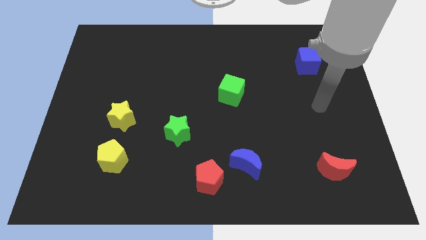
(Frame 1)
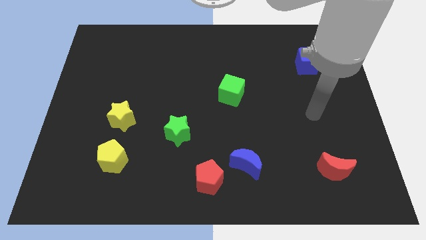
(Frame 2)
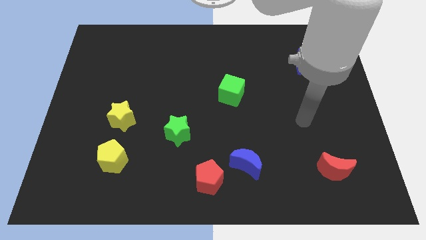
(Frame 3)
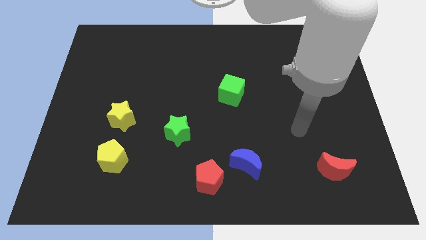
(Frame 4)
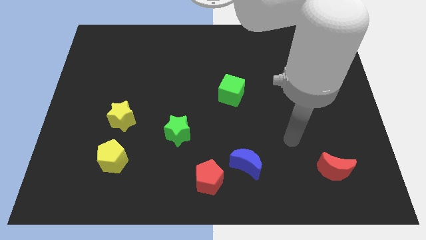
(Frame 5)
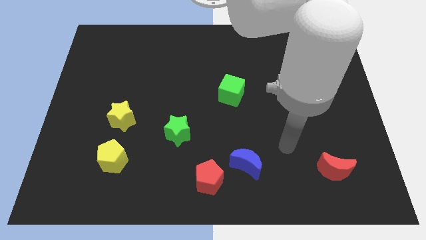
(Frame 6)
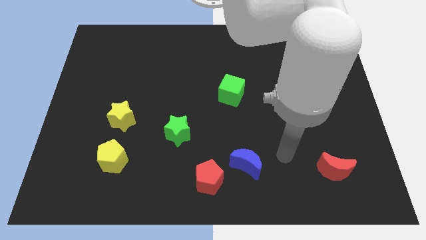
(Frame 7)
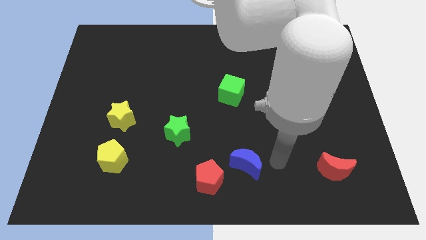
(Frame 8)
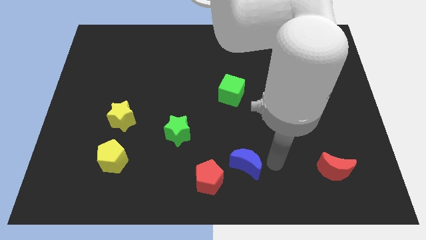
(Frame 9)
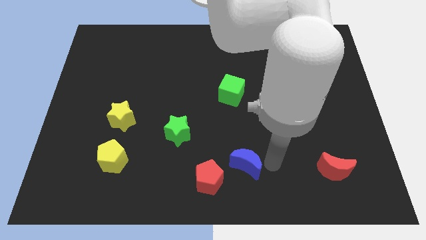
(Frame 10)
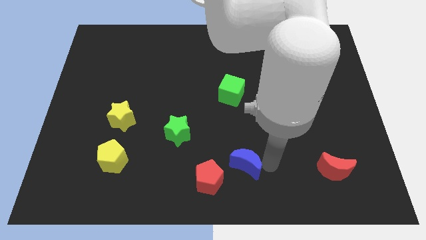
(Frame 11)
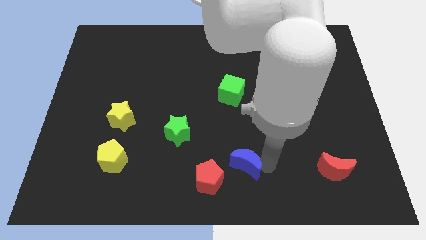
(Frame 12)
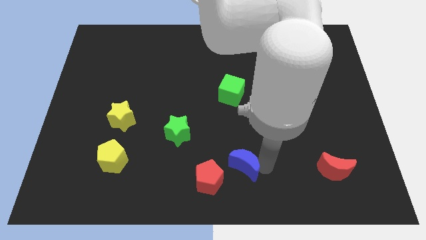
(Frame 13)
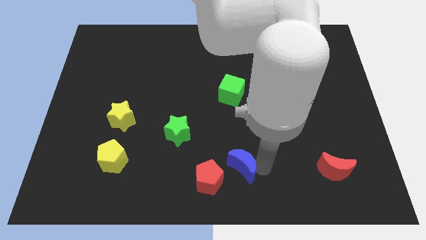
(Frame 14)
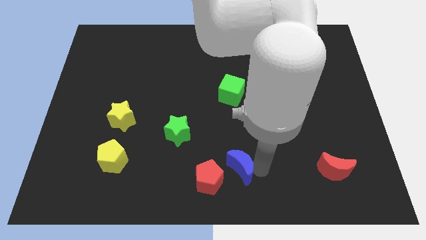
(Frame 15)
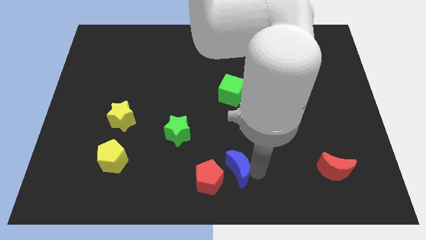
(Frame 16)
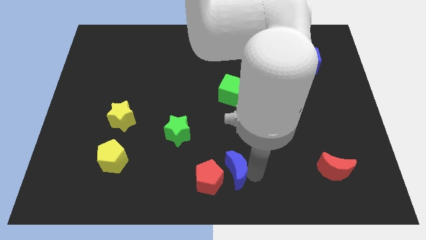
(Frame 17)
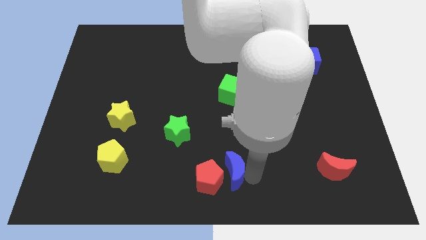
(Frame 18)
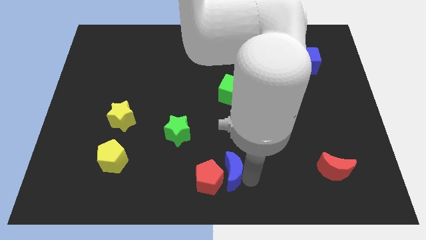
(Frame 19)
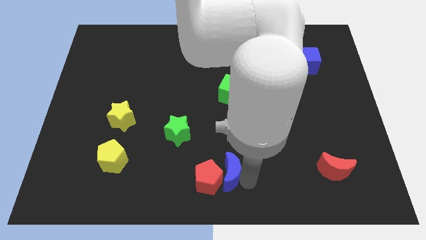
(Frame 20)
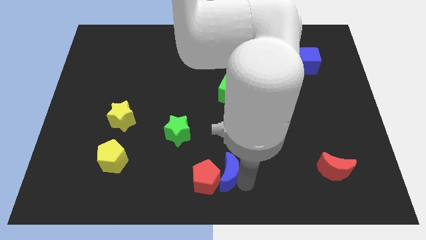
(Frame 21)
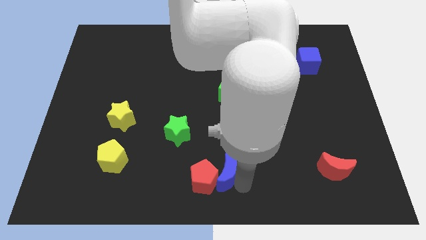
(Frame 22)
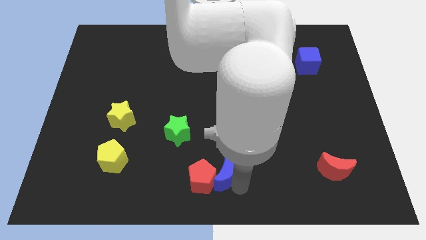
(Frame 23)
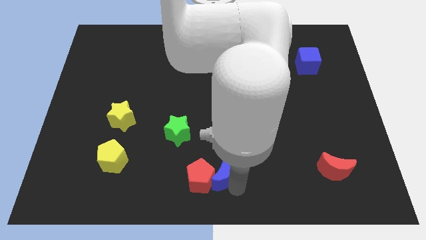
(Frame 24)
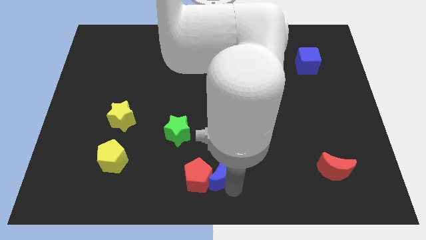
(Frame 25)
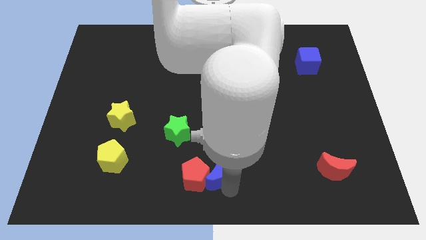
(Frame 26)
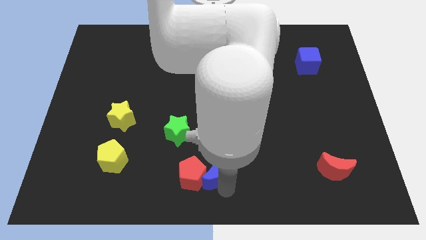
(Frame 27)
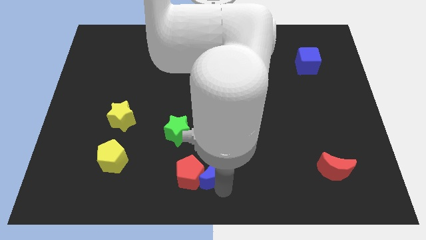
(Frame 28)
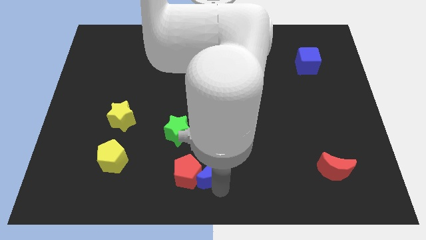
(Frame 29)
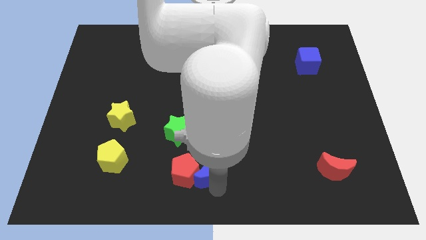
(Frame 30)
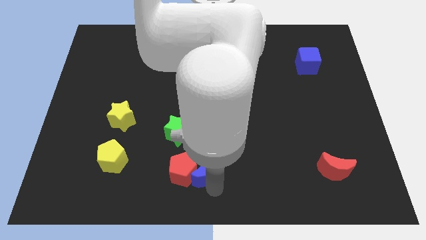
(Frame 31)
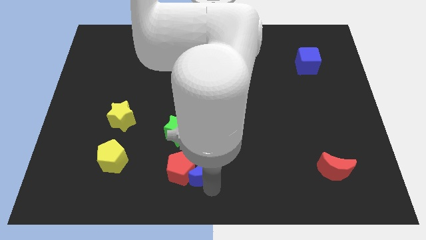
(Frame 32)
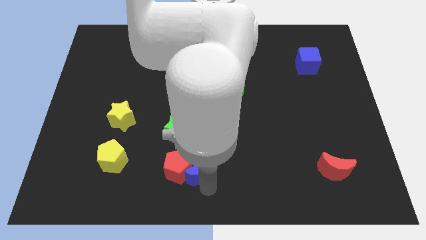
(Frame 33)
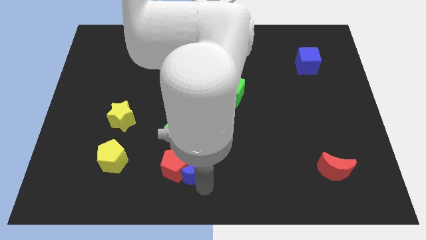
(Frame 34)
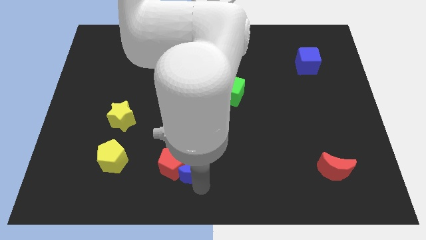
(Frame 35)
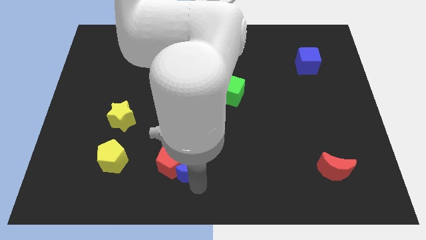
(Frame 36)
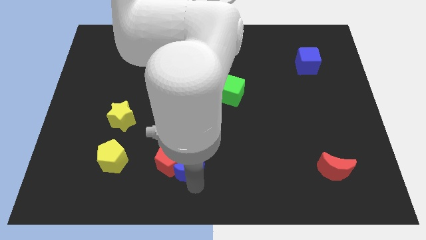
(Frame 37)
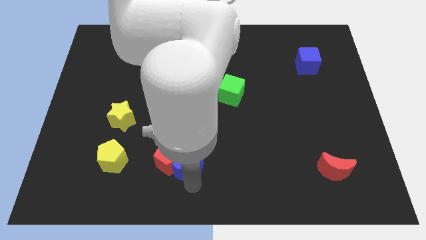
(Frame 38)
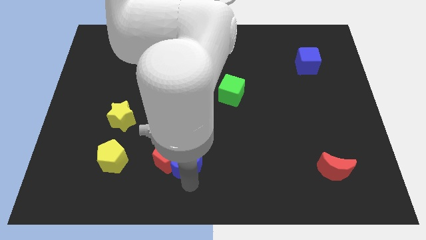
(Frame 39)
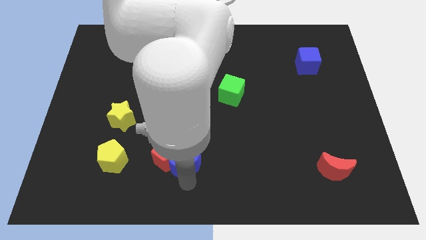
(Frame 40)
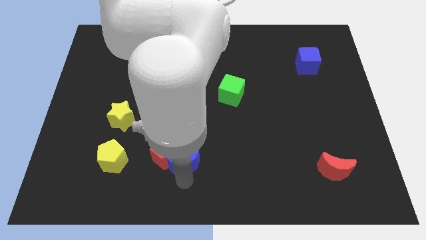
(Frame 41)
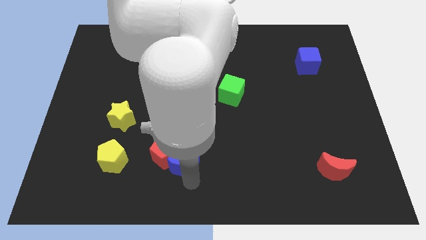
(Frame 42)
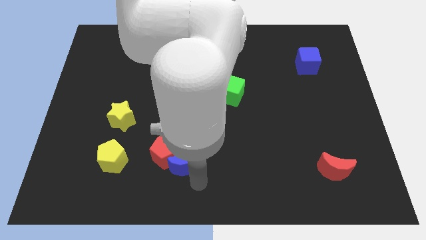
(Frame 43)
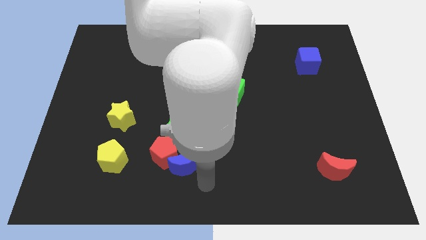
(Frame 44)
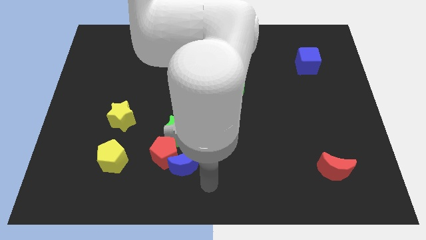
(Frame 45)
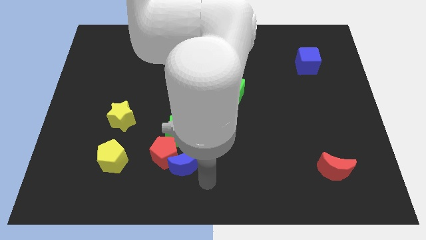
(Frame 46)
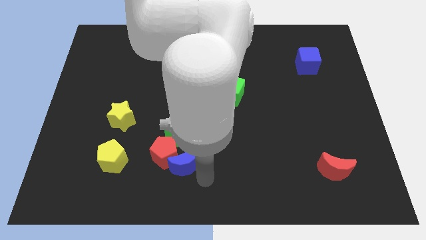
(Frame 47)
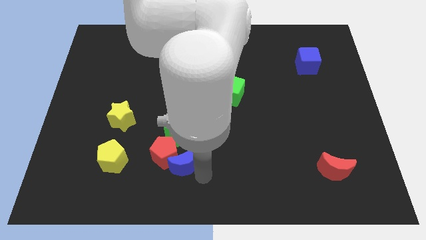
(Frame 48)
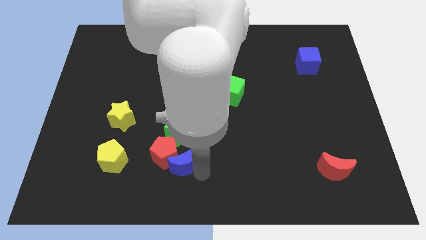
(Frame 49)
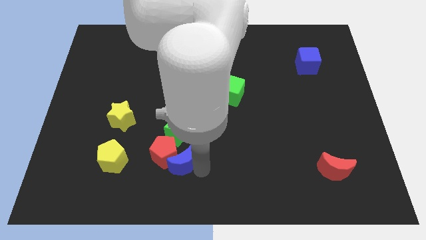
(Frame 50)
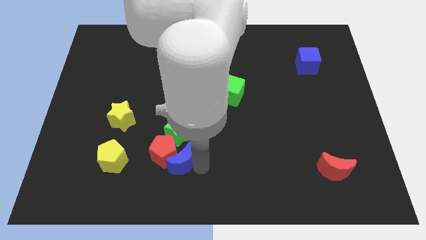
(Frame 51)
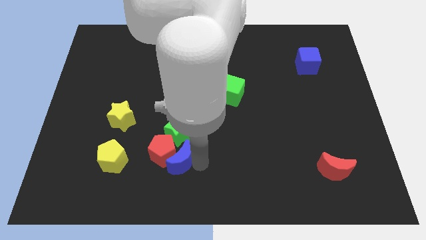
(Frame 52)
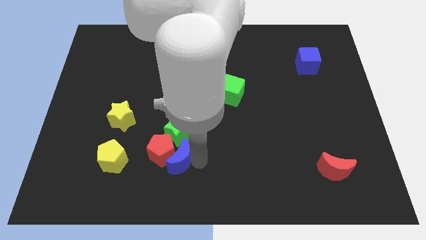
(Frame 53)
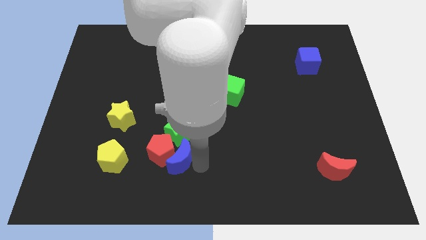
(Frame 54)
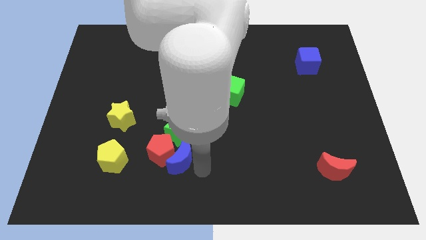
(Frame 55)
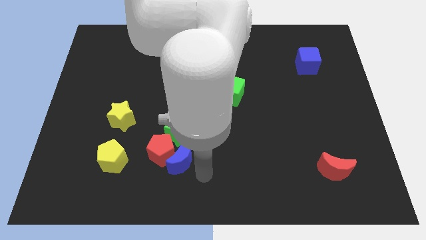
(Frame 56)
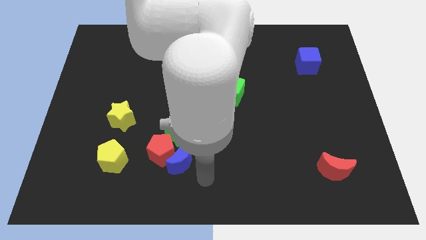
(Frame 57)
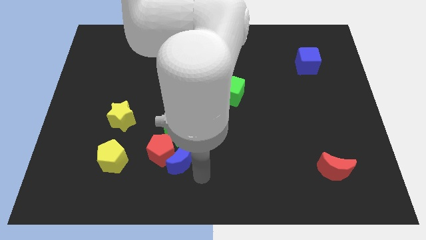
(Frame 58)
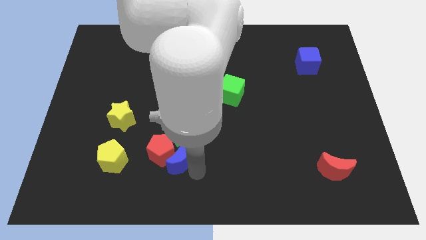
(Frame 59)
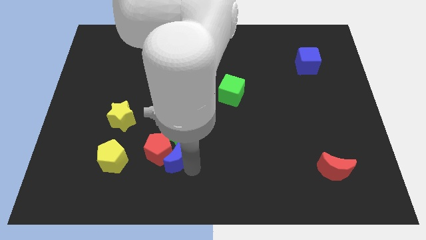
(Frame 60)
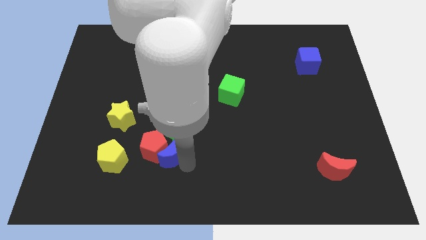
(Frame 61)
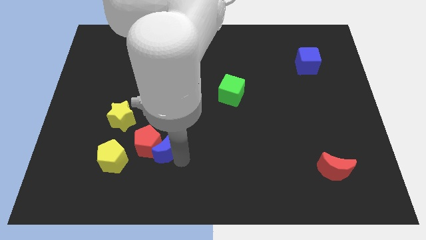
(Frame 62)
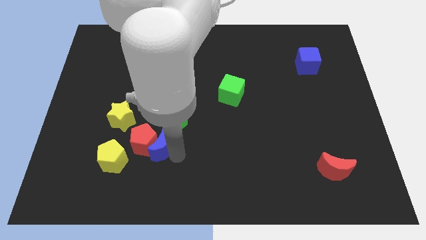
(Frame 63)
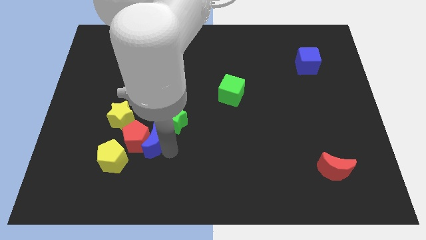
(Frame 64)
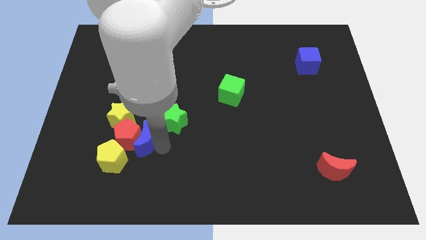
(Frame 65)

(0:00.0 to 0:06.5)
slide the blue moon just left of the green star

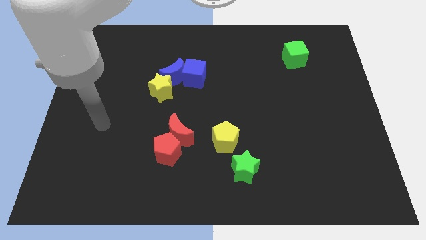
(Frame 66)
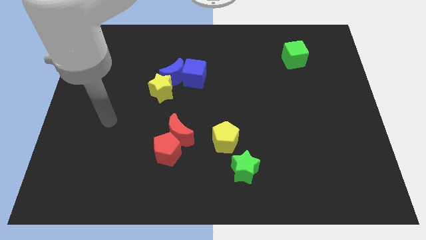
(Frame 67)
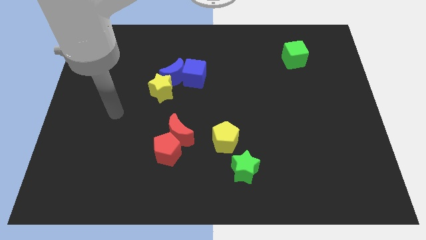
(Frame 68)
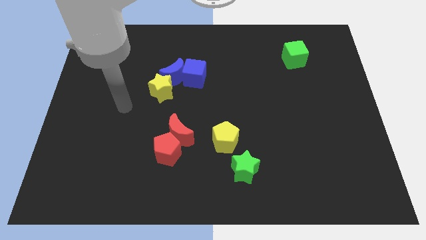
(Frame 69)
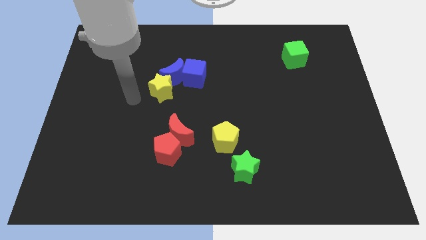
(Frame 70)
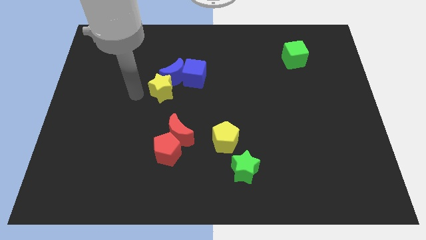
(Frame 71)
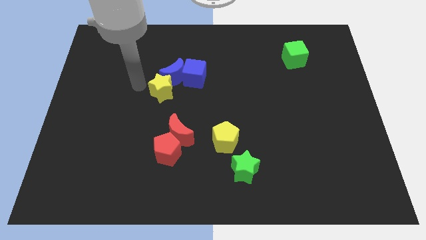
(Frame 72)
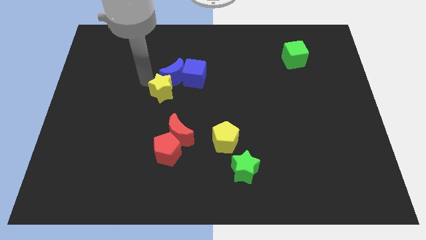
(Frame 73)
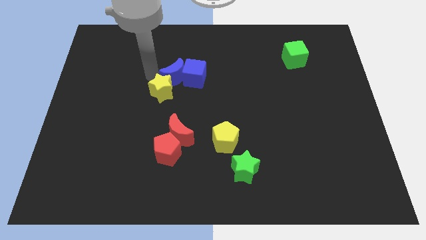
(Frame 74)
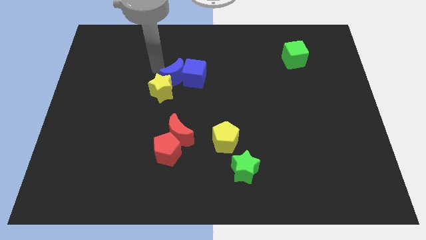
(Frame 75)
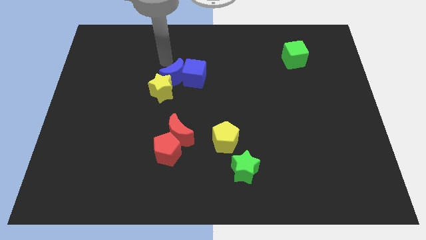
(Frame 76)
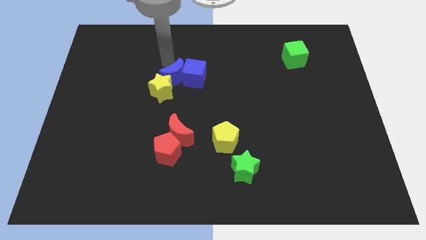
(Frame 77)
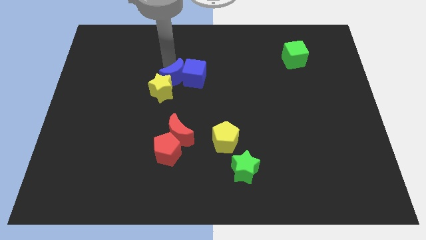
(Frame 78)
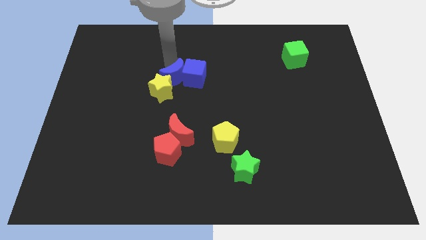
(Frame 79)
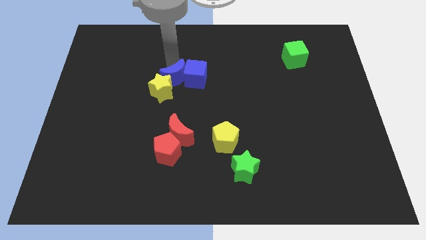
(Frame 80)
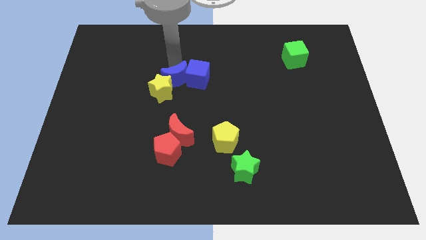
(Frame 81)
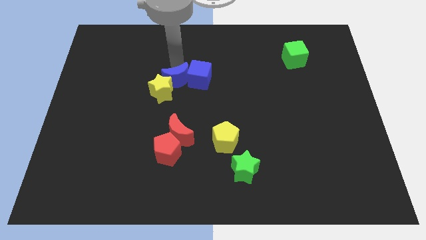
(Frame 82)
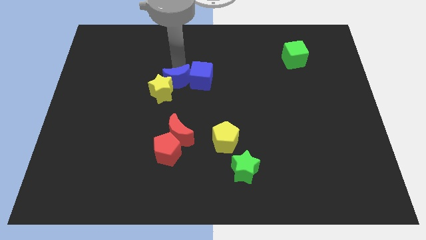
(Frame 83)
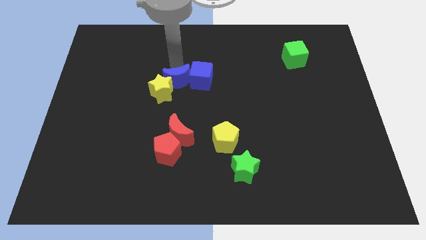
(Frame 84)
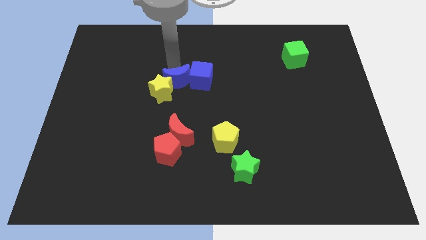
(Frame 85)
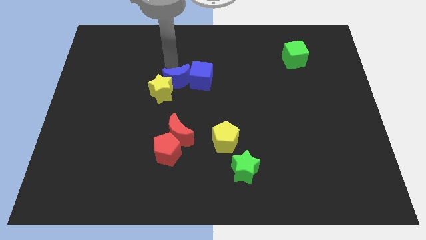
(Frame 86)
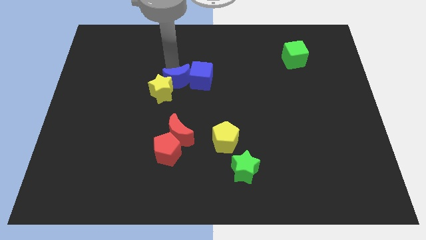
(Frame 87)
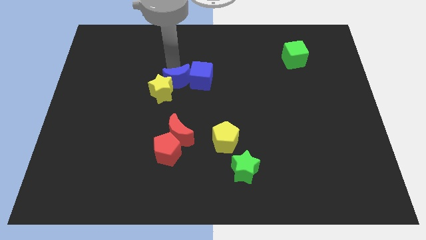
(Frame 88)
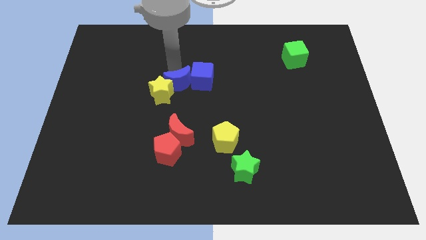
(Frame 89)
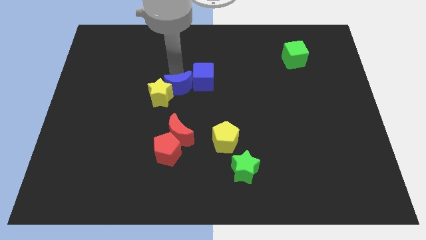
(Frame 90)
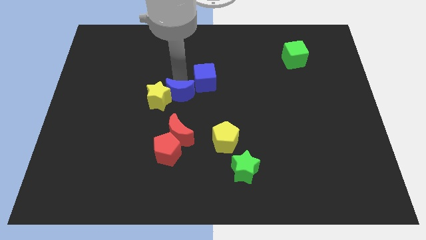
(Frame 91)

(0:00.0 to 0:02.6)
put the blue moon to the top side of the red pentagon
